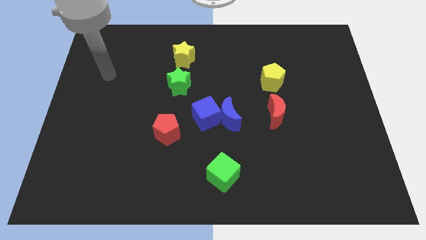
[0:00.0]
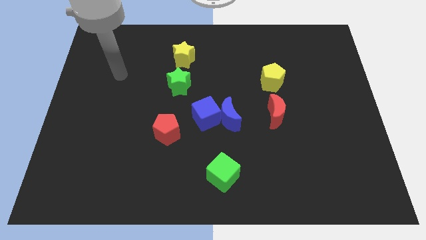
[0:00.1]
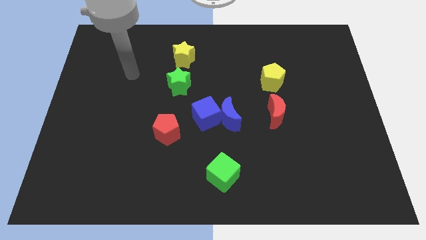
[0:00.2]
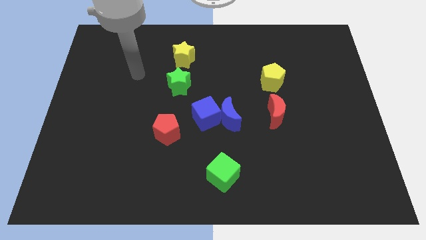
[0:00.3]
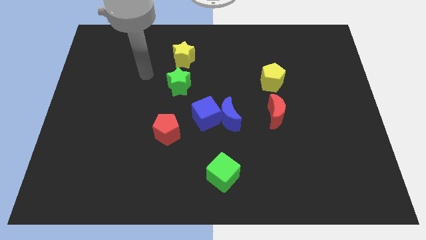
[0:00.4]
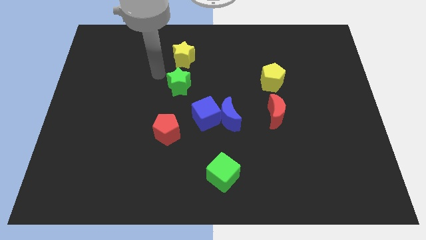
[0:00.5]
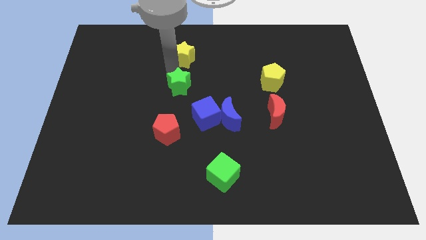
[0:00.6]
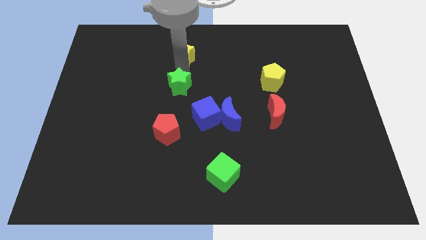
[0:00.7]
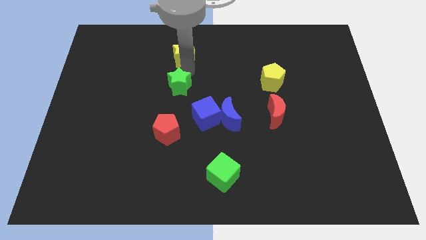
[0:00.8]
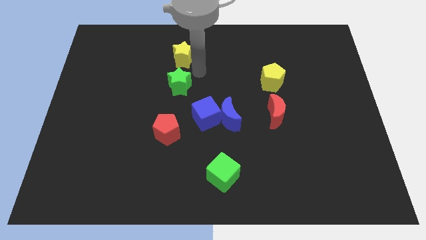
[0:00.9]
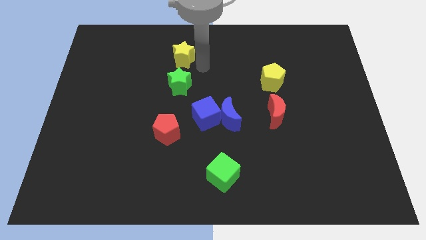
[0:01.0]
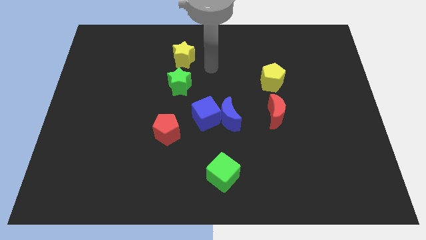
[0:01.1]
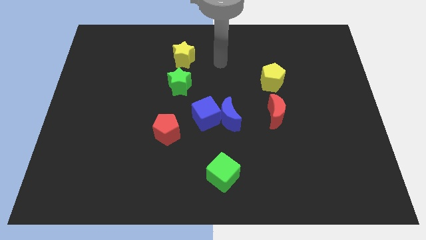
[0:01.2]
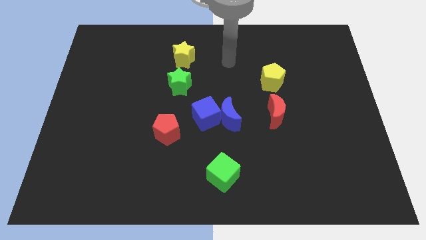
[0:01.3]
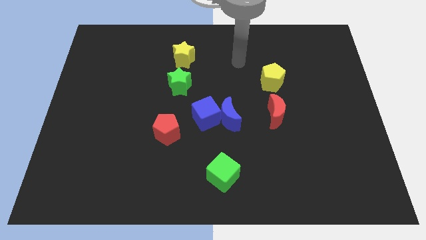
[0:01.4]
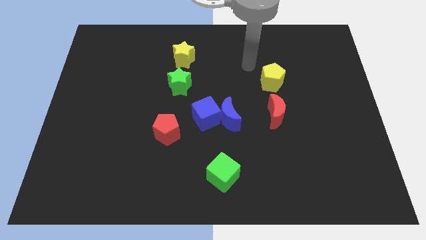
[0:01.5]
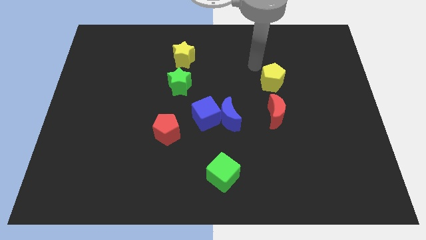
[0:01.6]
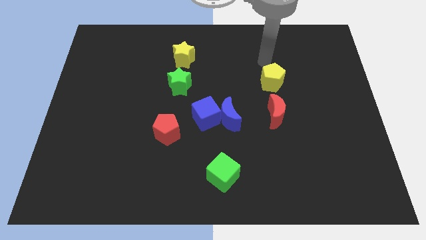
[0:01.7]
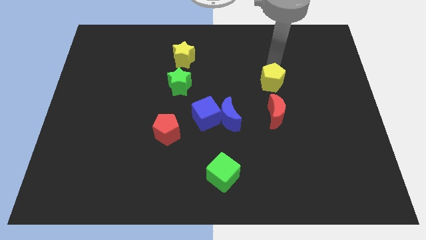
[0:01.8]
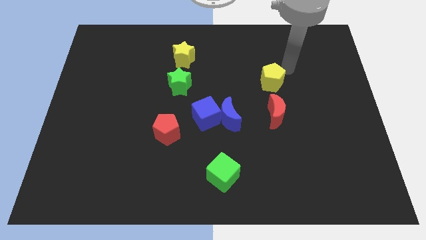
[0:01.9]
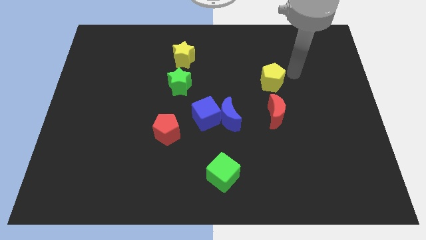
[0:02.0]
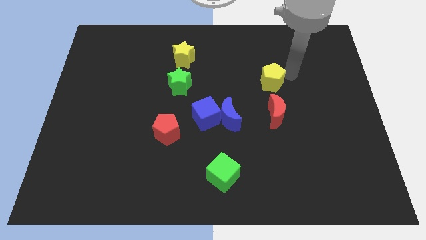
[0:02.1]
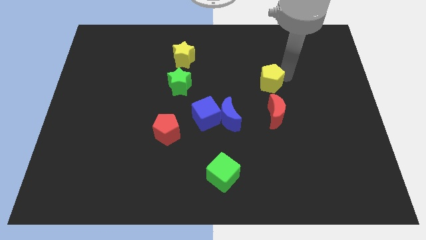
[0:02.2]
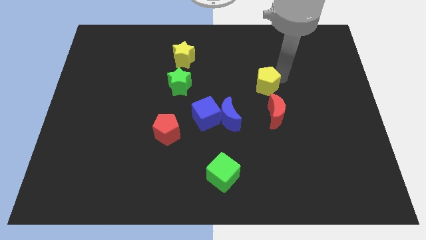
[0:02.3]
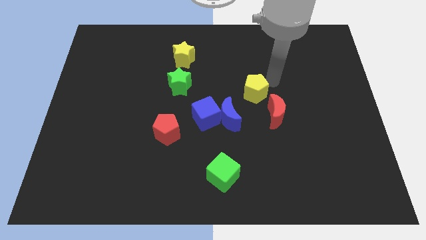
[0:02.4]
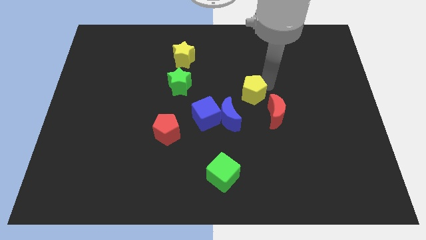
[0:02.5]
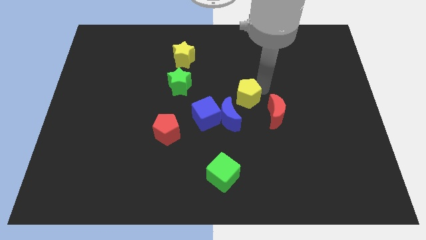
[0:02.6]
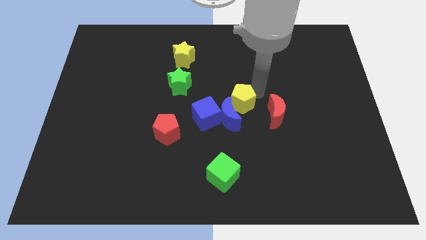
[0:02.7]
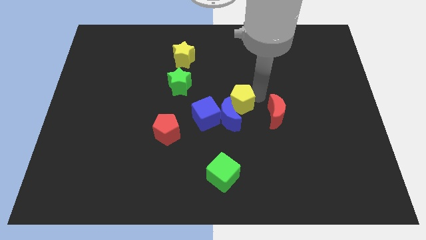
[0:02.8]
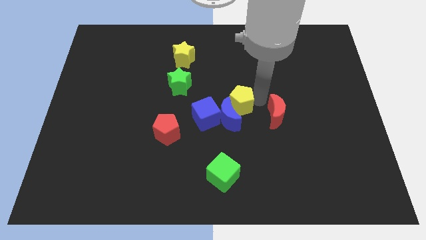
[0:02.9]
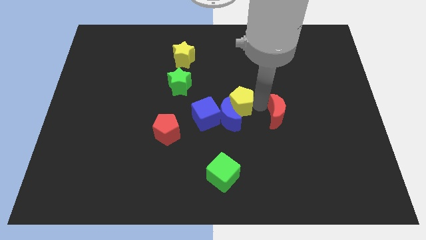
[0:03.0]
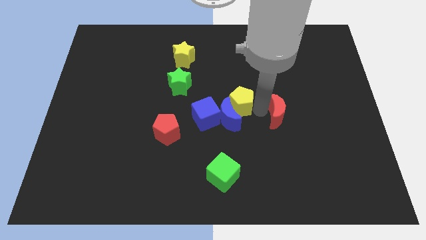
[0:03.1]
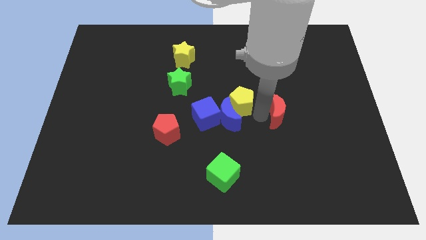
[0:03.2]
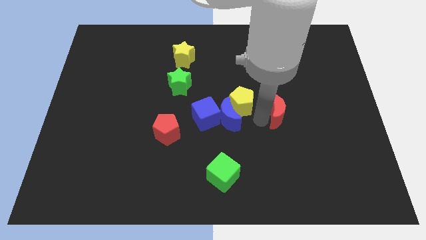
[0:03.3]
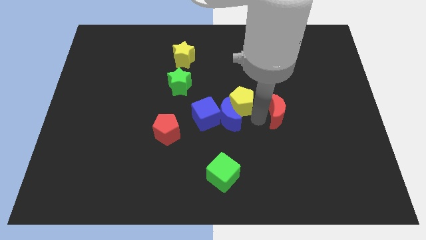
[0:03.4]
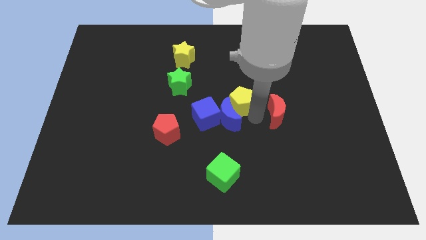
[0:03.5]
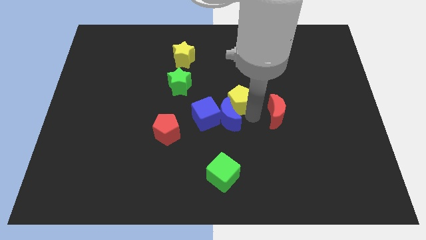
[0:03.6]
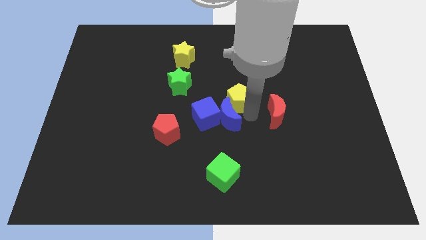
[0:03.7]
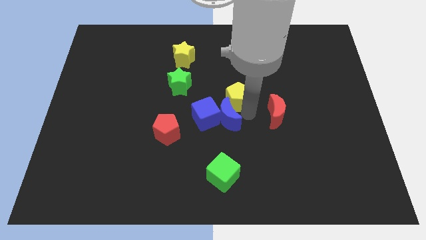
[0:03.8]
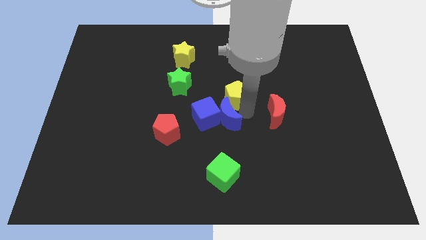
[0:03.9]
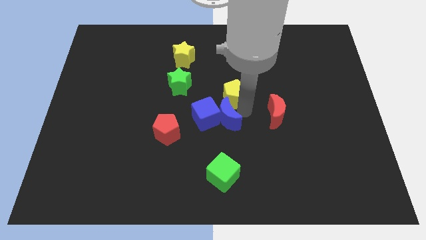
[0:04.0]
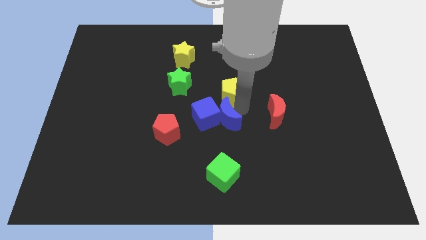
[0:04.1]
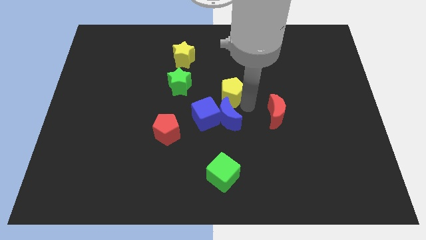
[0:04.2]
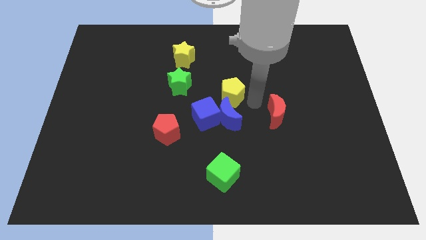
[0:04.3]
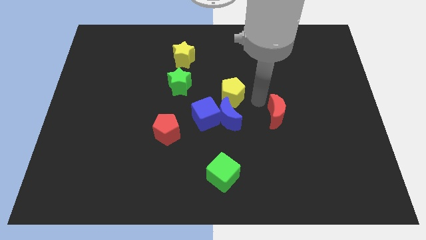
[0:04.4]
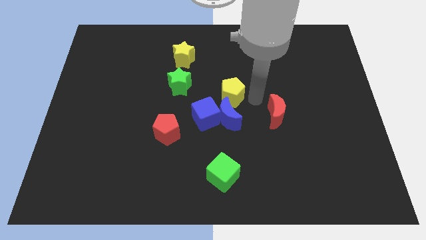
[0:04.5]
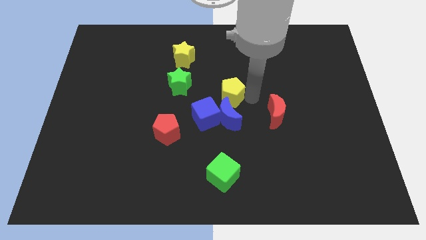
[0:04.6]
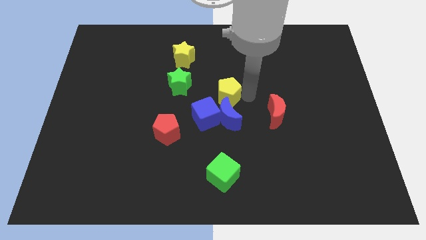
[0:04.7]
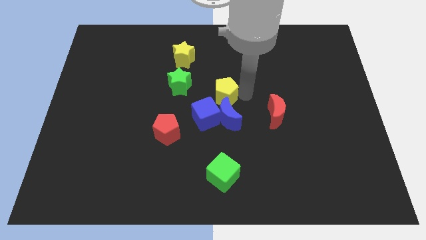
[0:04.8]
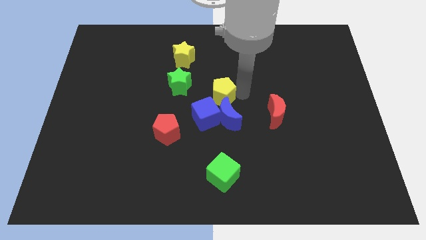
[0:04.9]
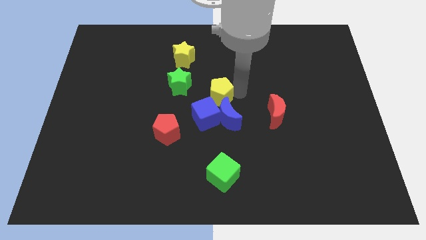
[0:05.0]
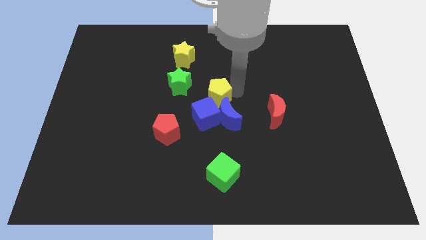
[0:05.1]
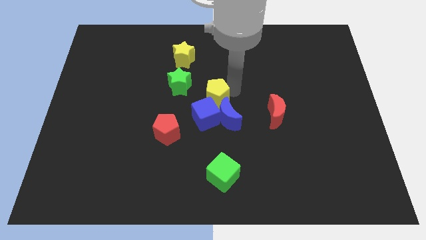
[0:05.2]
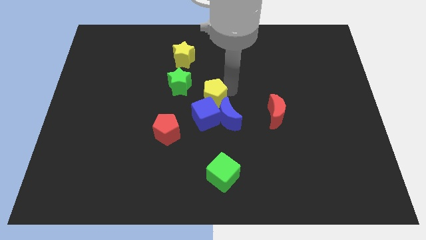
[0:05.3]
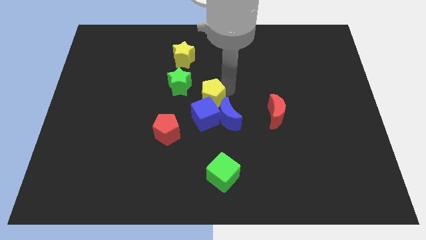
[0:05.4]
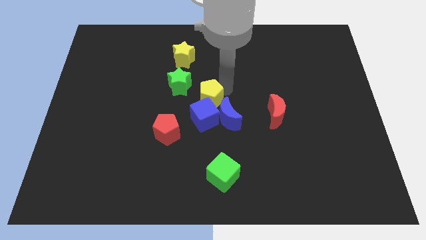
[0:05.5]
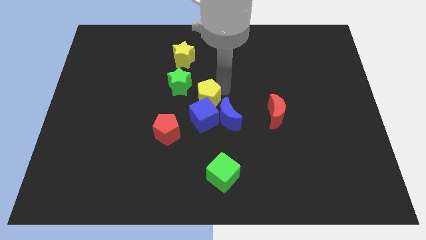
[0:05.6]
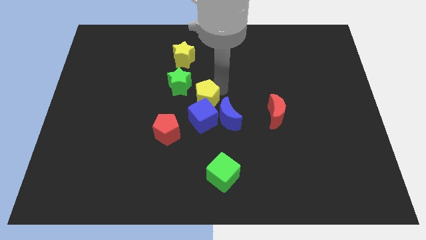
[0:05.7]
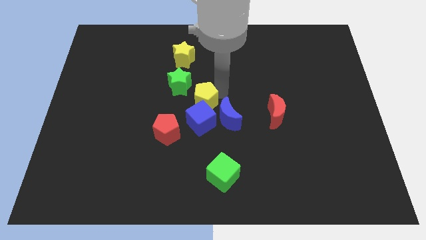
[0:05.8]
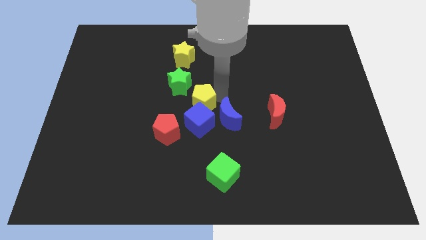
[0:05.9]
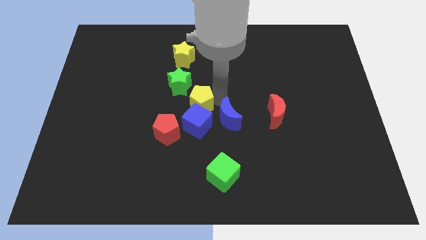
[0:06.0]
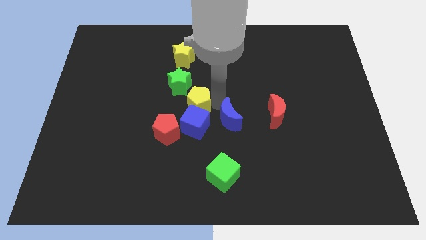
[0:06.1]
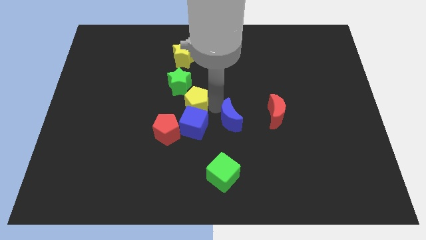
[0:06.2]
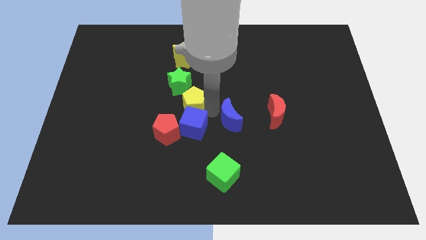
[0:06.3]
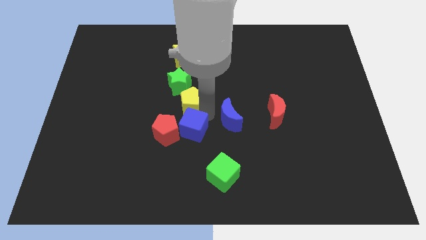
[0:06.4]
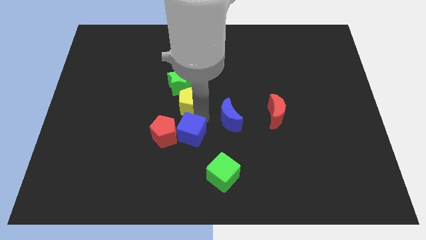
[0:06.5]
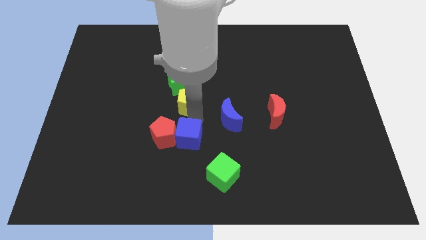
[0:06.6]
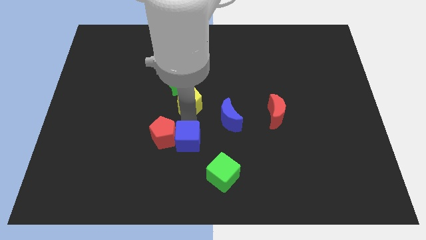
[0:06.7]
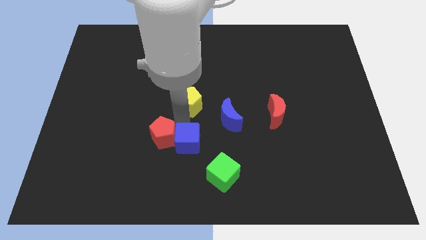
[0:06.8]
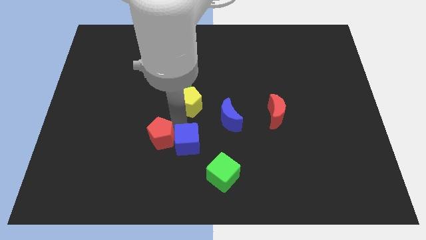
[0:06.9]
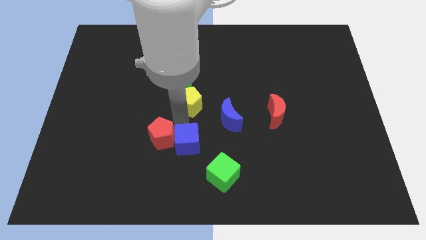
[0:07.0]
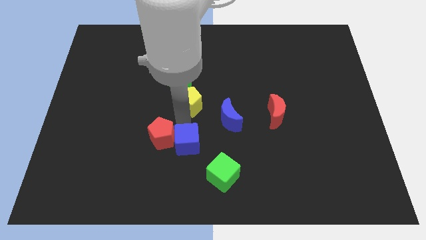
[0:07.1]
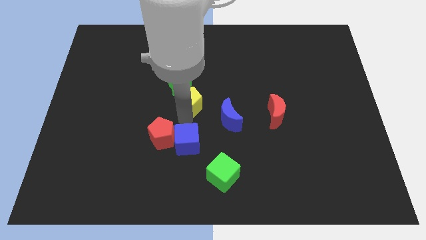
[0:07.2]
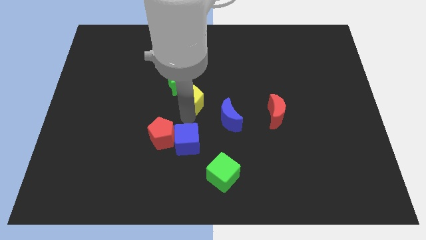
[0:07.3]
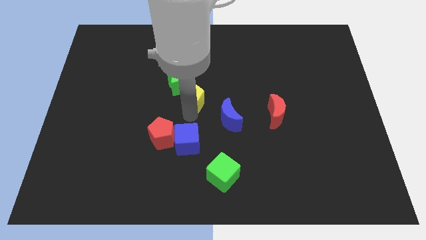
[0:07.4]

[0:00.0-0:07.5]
push the yellow pentagon towards the green star

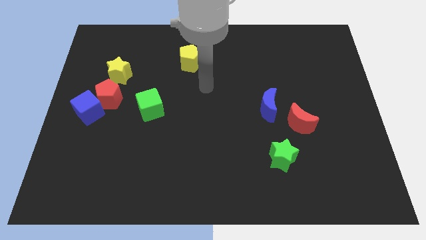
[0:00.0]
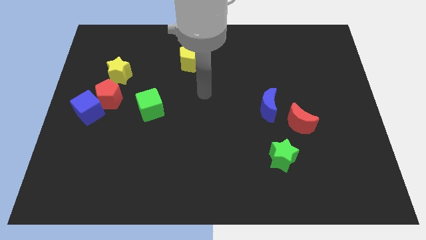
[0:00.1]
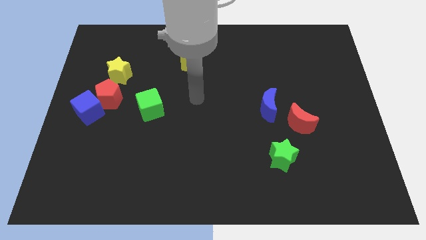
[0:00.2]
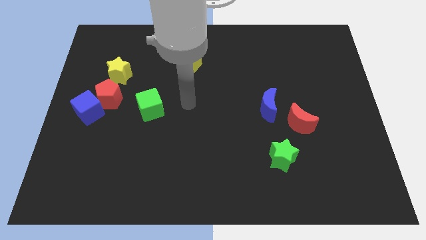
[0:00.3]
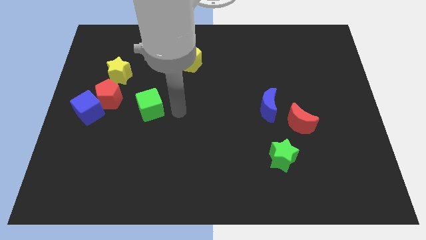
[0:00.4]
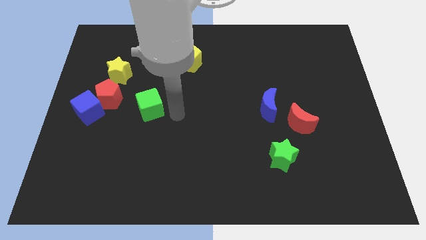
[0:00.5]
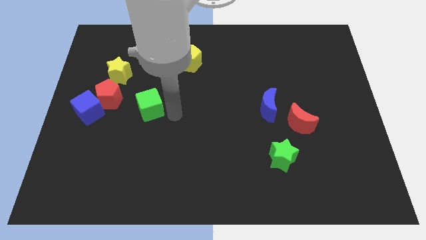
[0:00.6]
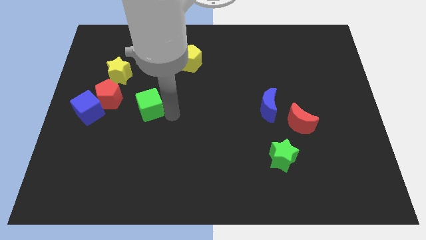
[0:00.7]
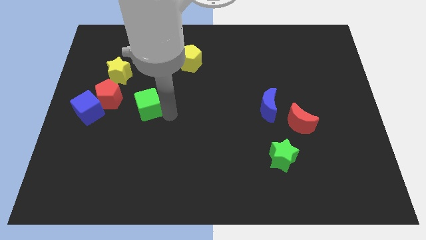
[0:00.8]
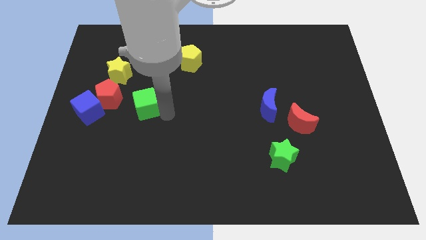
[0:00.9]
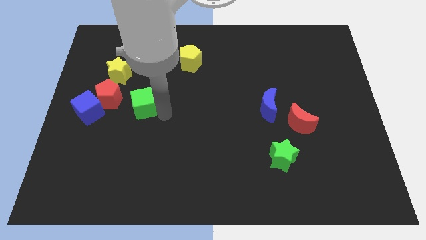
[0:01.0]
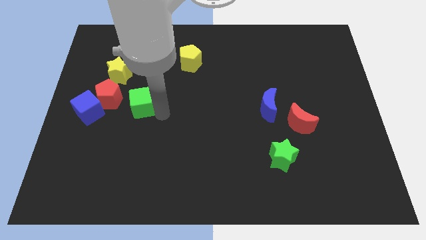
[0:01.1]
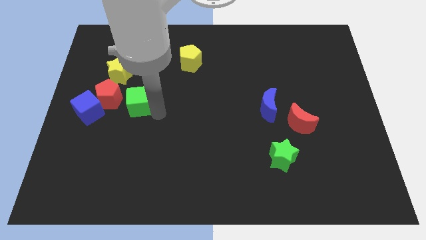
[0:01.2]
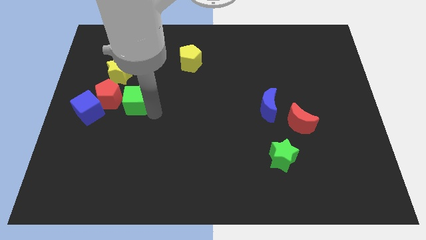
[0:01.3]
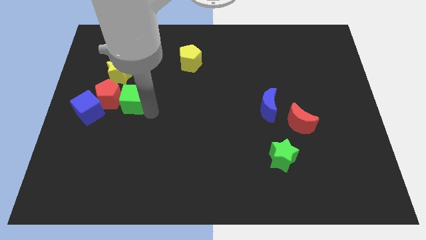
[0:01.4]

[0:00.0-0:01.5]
put the green cube next to the red pentagon
